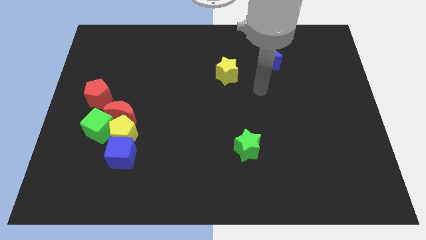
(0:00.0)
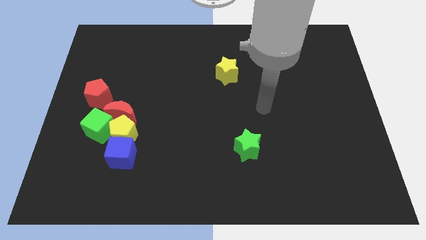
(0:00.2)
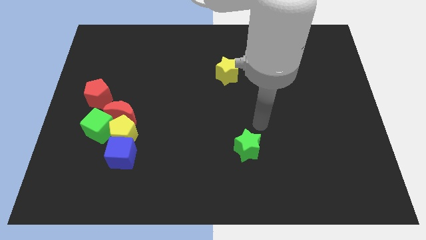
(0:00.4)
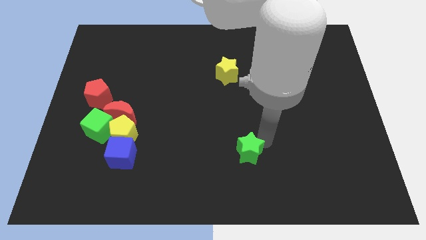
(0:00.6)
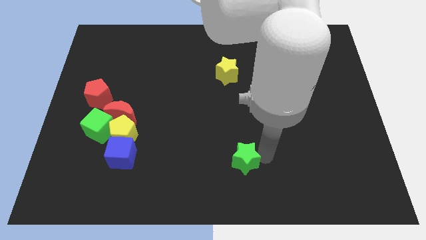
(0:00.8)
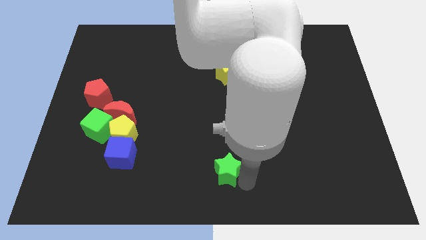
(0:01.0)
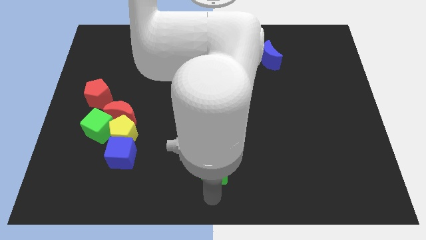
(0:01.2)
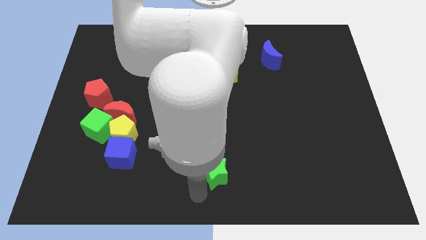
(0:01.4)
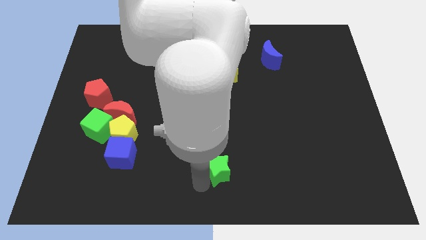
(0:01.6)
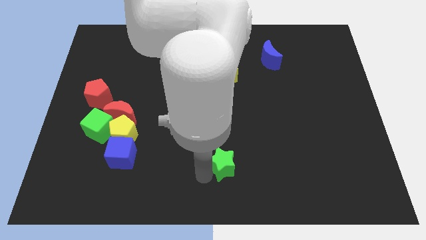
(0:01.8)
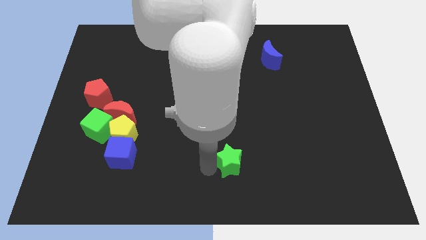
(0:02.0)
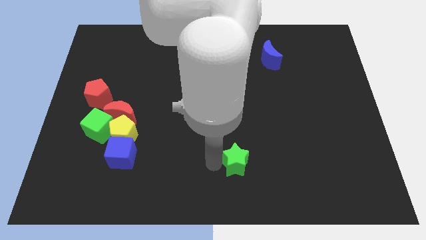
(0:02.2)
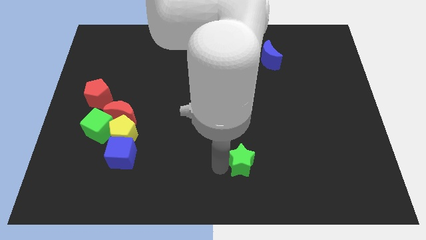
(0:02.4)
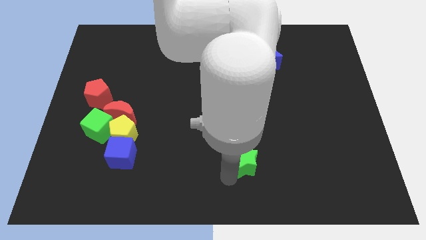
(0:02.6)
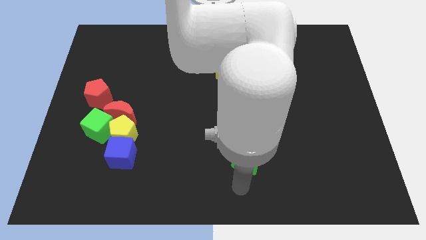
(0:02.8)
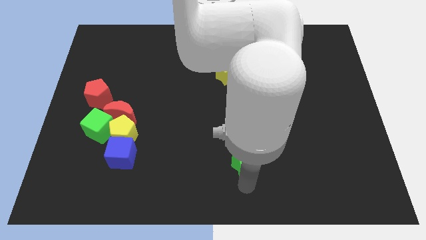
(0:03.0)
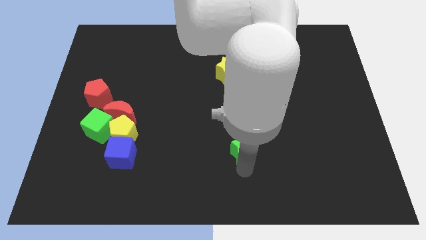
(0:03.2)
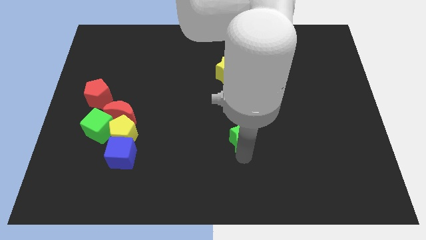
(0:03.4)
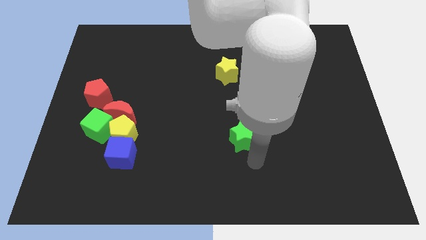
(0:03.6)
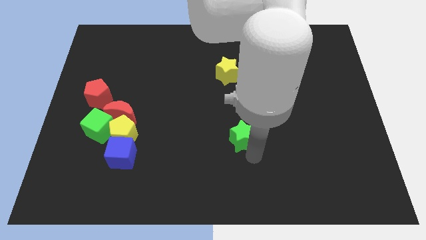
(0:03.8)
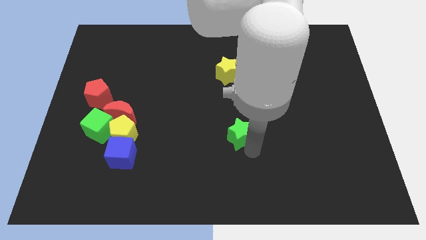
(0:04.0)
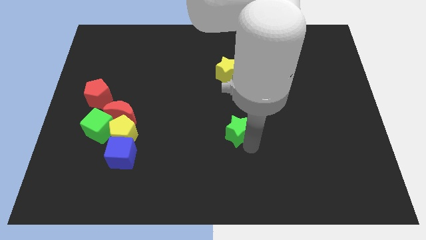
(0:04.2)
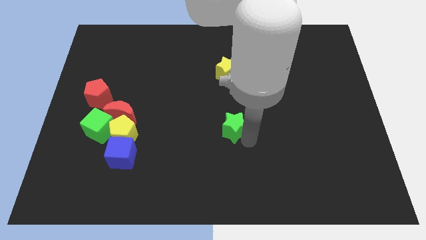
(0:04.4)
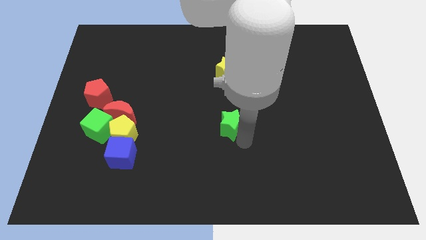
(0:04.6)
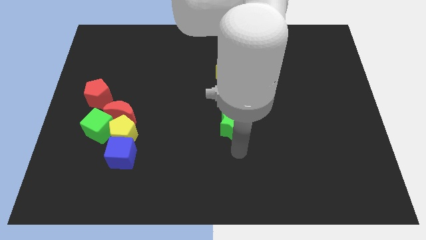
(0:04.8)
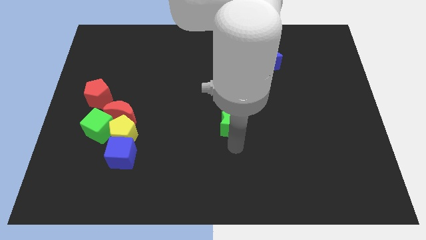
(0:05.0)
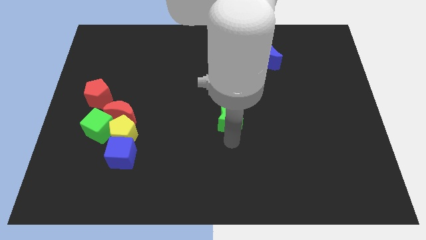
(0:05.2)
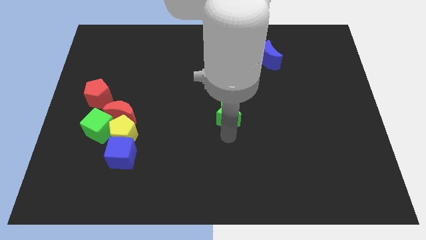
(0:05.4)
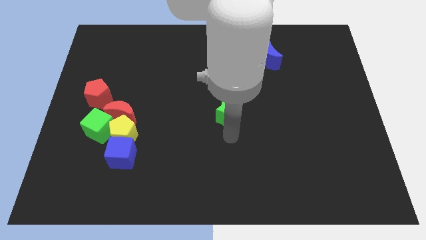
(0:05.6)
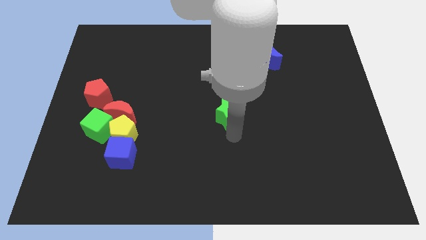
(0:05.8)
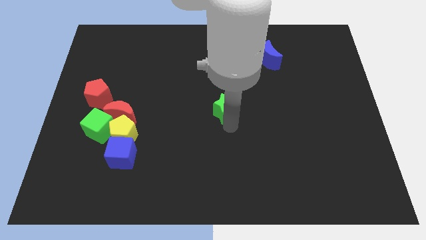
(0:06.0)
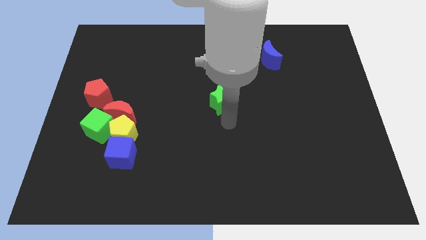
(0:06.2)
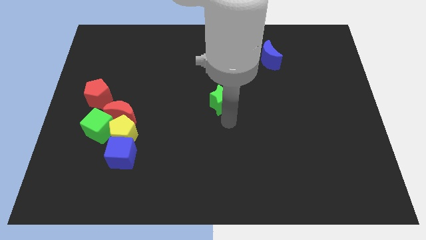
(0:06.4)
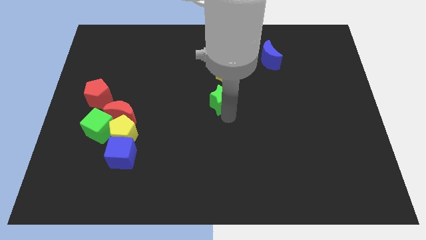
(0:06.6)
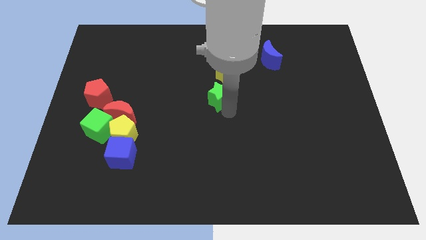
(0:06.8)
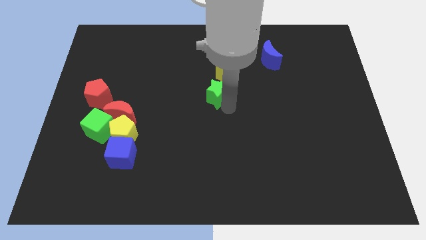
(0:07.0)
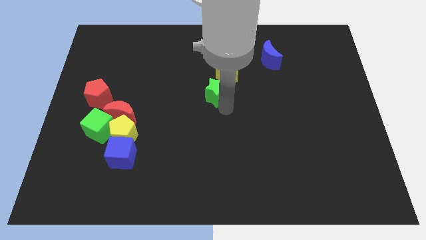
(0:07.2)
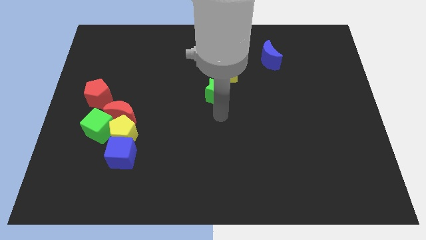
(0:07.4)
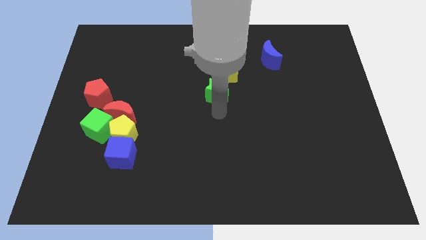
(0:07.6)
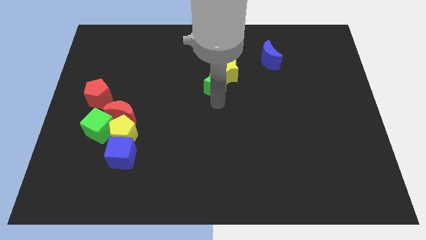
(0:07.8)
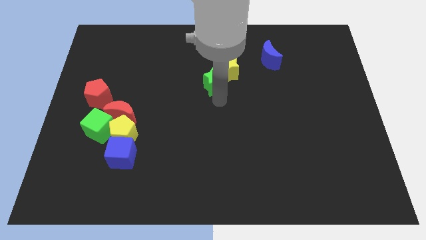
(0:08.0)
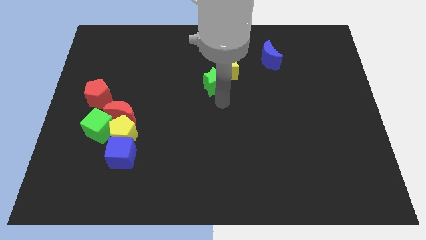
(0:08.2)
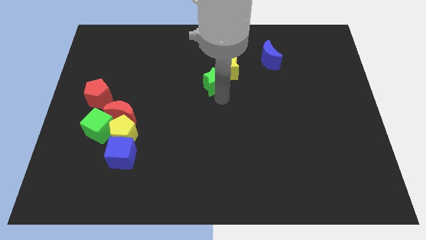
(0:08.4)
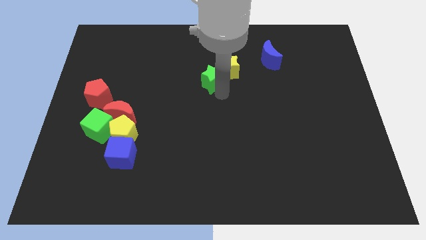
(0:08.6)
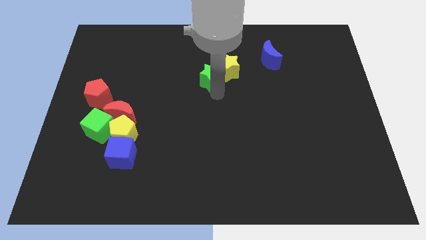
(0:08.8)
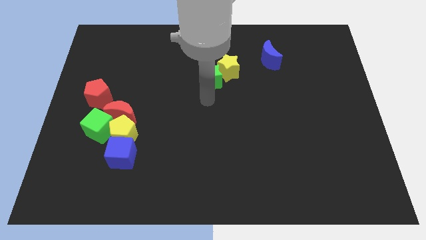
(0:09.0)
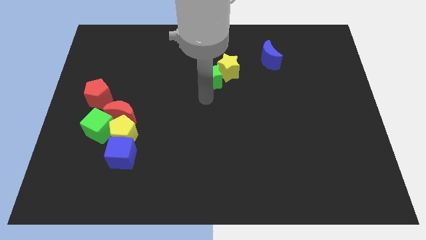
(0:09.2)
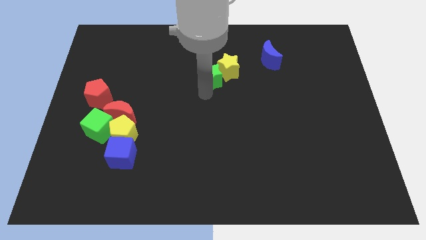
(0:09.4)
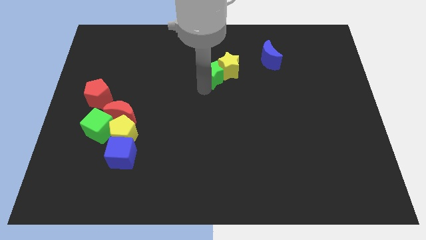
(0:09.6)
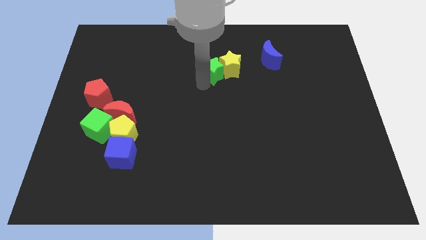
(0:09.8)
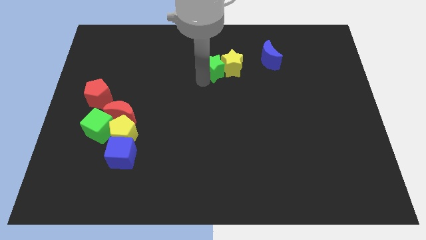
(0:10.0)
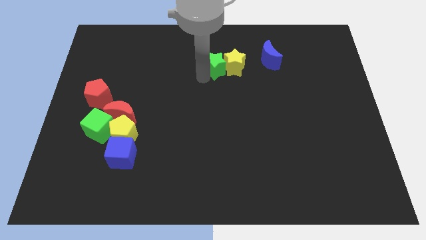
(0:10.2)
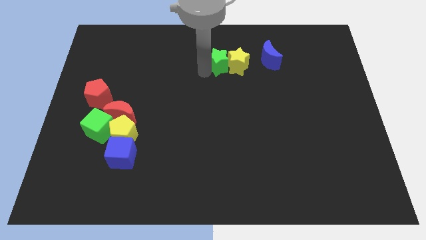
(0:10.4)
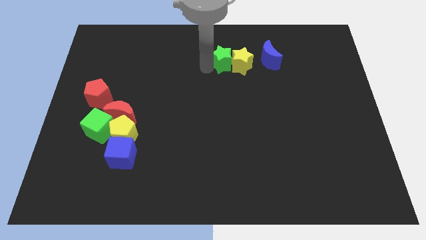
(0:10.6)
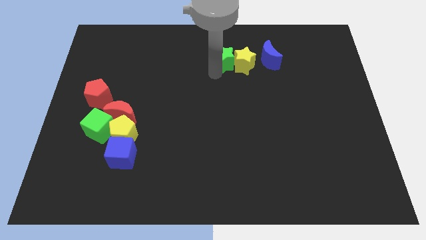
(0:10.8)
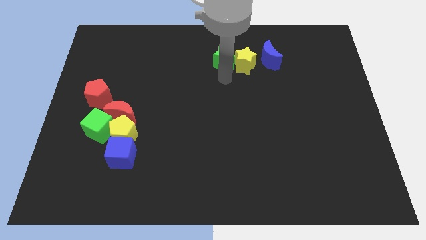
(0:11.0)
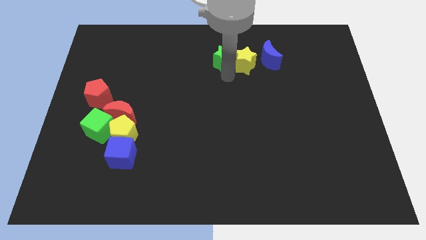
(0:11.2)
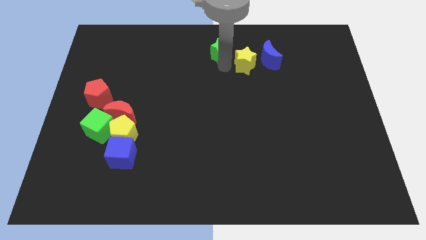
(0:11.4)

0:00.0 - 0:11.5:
put the green star to the towards your base
